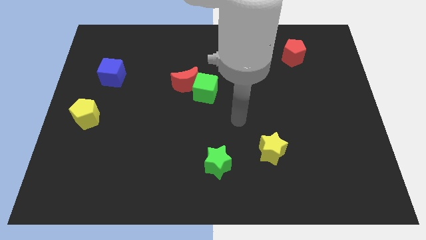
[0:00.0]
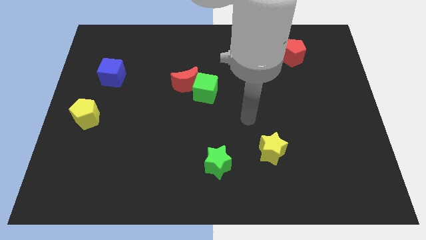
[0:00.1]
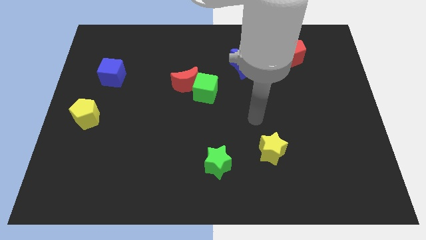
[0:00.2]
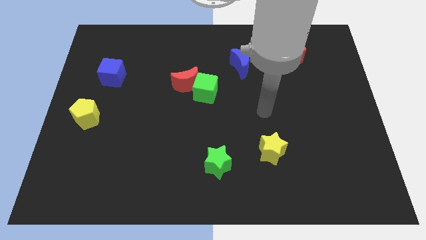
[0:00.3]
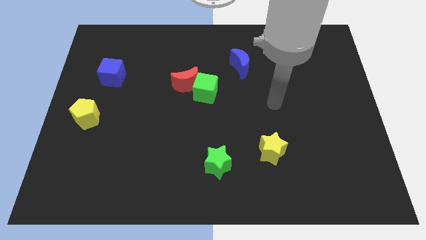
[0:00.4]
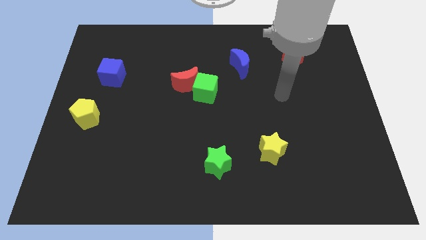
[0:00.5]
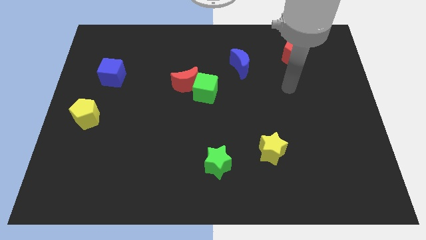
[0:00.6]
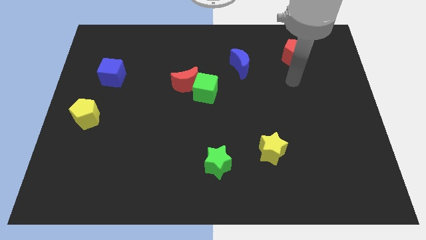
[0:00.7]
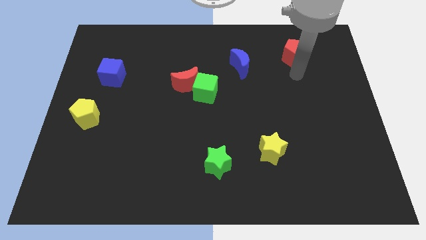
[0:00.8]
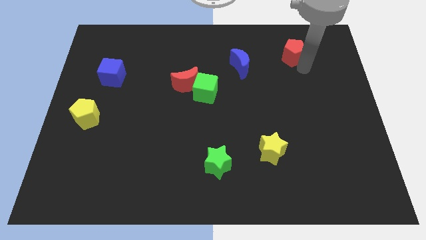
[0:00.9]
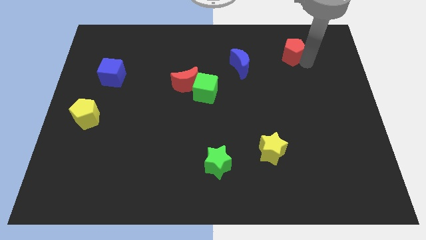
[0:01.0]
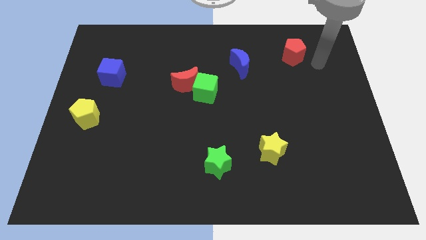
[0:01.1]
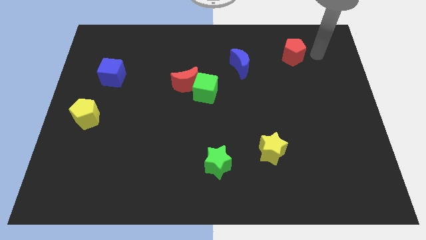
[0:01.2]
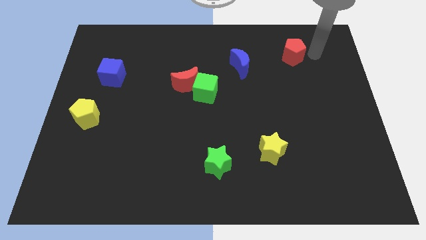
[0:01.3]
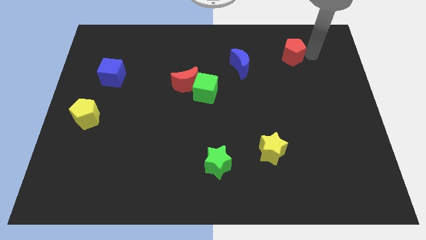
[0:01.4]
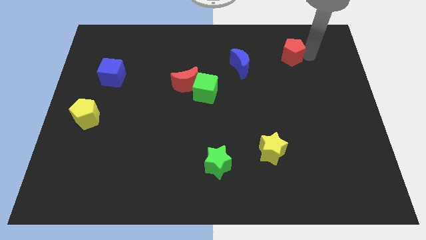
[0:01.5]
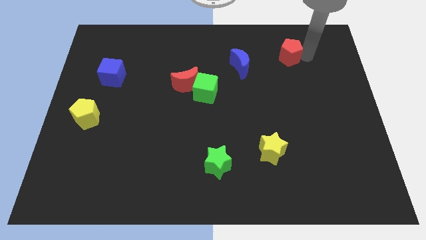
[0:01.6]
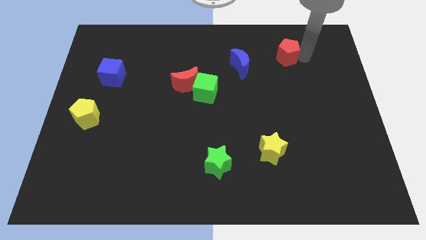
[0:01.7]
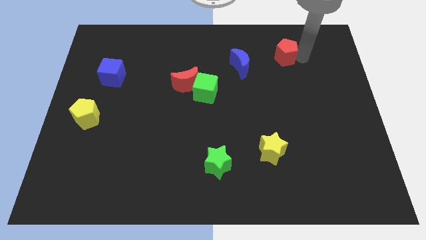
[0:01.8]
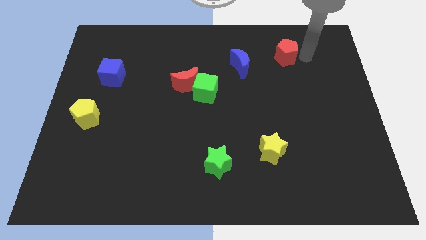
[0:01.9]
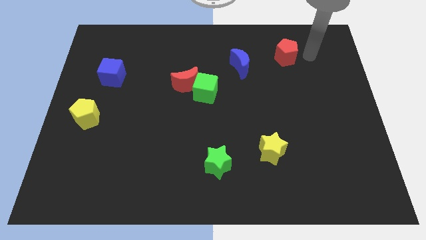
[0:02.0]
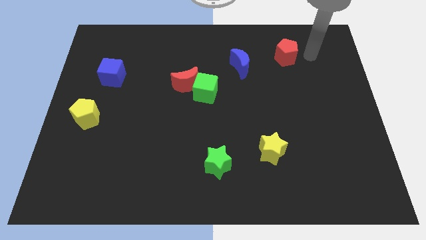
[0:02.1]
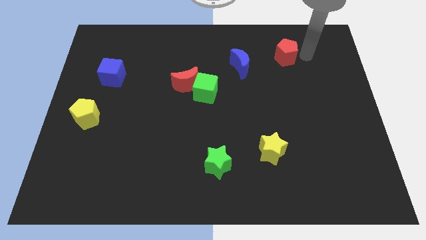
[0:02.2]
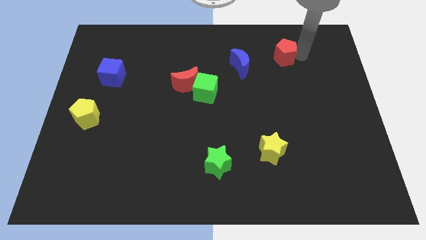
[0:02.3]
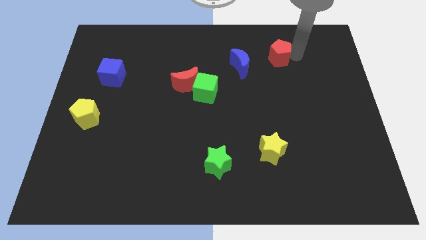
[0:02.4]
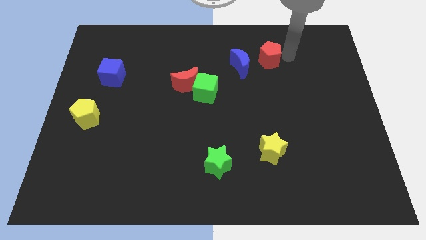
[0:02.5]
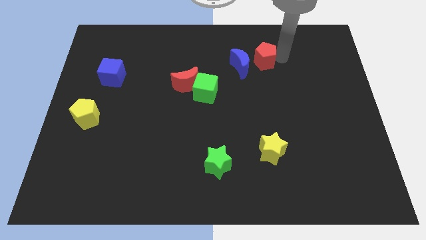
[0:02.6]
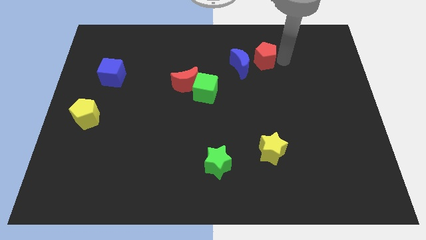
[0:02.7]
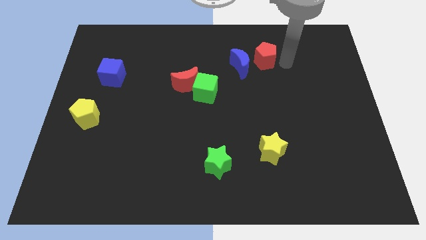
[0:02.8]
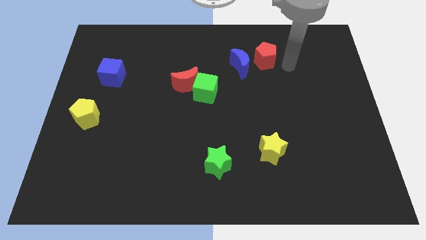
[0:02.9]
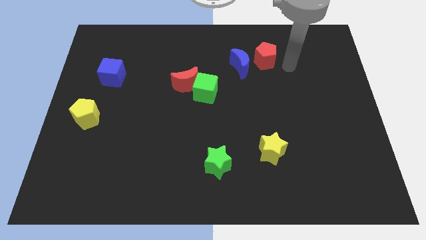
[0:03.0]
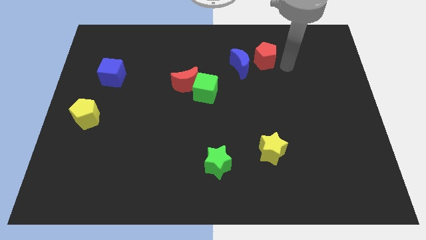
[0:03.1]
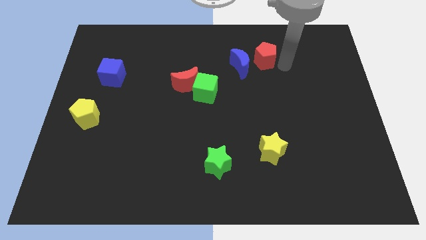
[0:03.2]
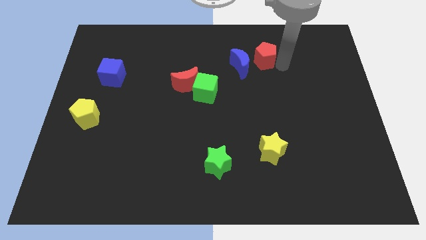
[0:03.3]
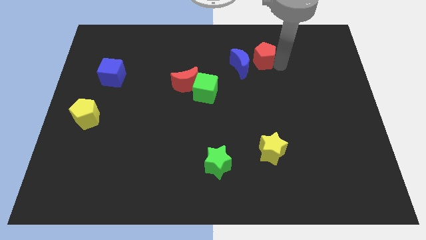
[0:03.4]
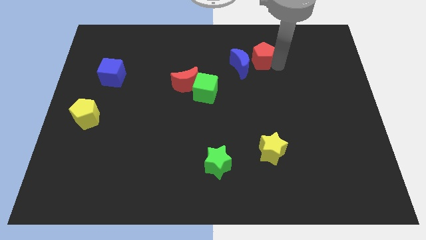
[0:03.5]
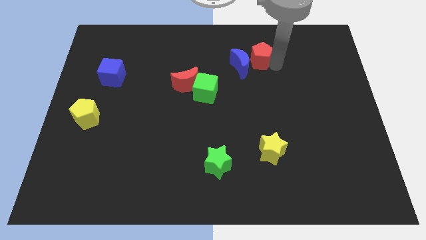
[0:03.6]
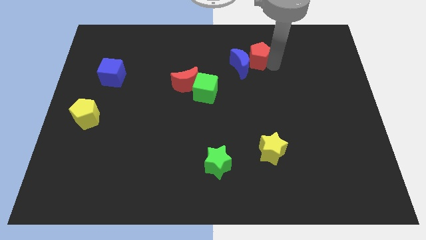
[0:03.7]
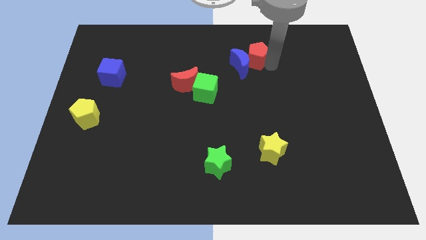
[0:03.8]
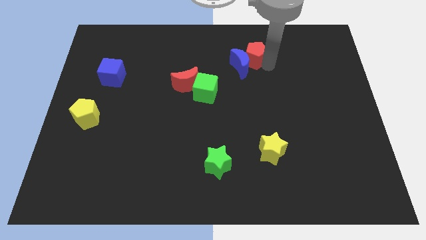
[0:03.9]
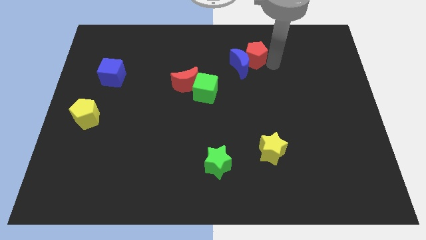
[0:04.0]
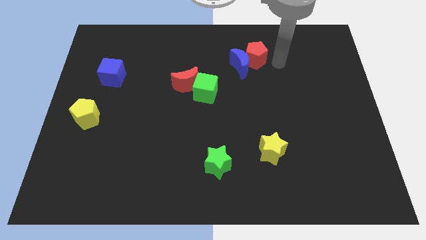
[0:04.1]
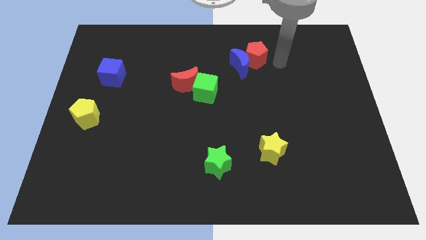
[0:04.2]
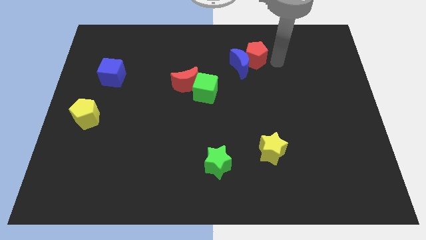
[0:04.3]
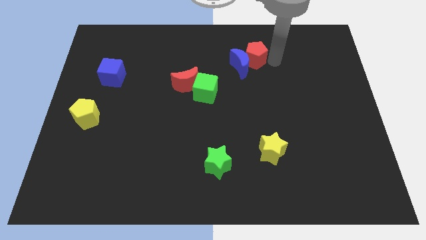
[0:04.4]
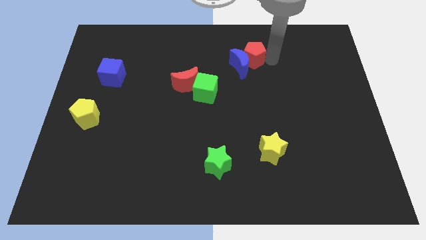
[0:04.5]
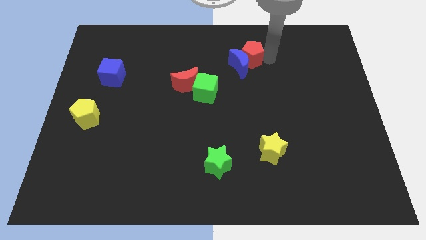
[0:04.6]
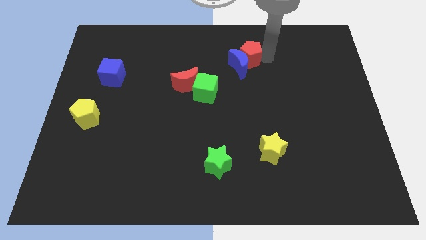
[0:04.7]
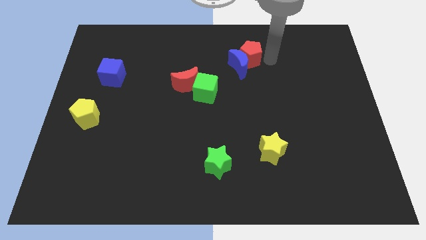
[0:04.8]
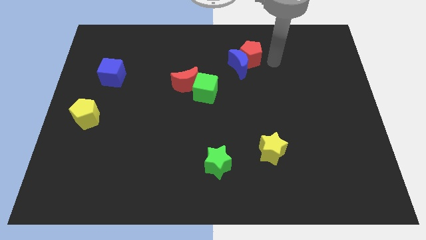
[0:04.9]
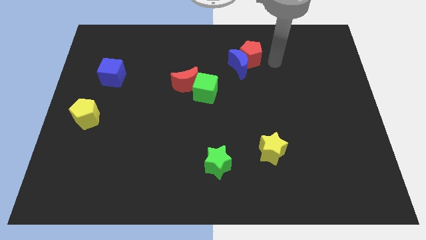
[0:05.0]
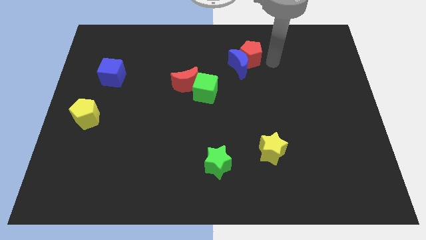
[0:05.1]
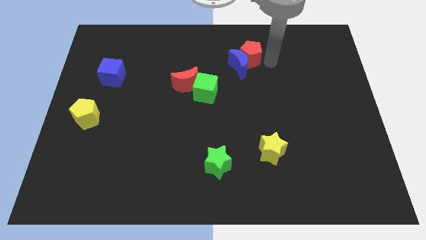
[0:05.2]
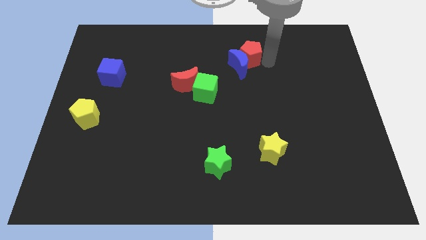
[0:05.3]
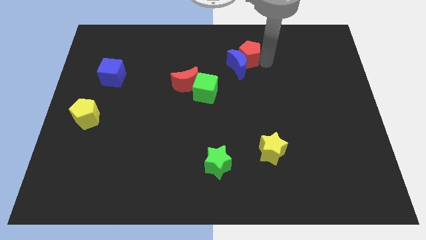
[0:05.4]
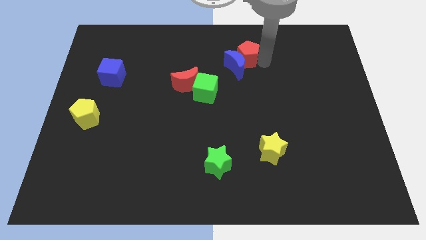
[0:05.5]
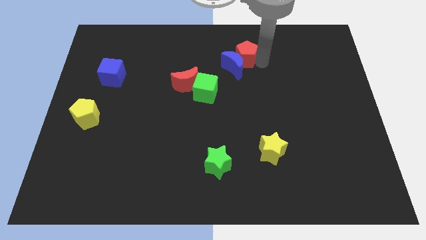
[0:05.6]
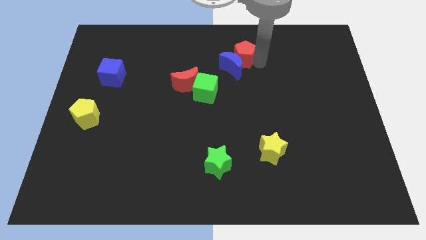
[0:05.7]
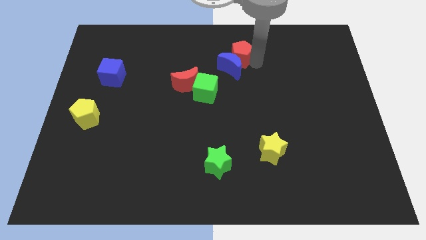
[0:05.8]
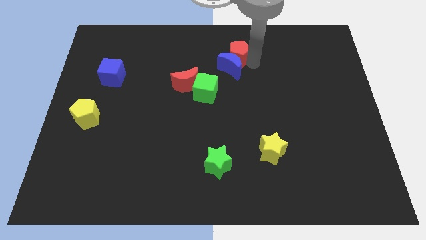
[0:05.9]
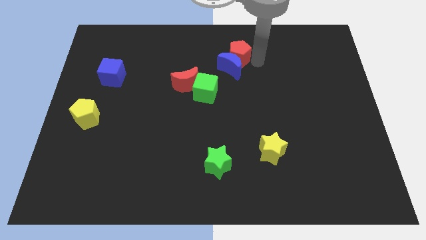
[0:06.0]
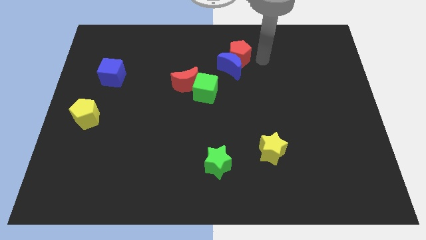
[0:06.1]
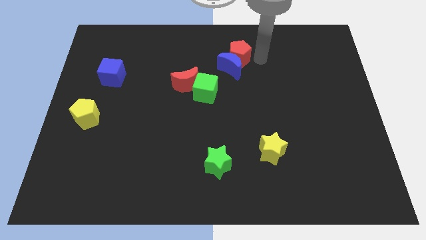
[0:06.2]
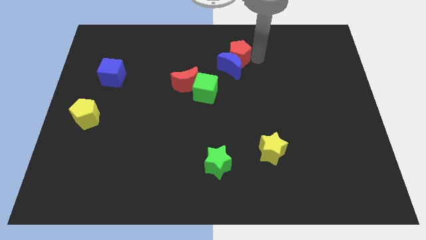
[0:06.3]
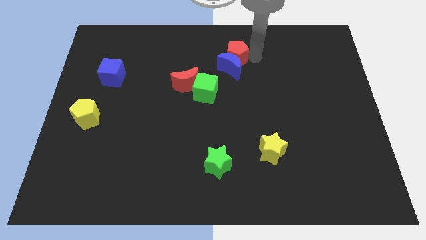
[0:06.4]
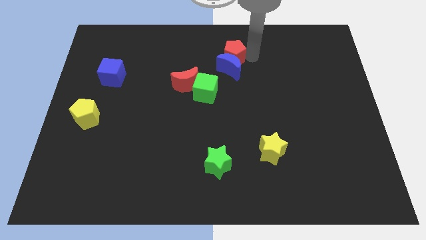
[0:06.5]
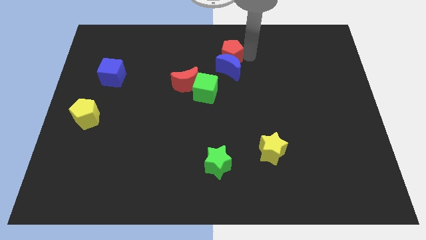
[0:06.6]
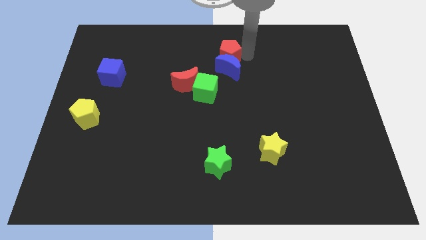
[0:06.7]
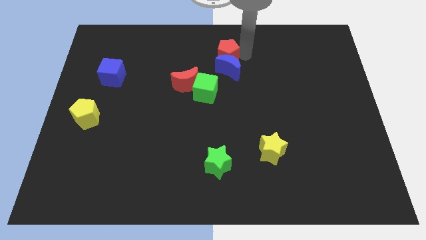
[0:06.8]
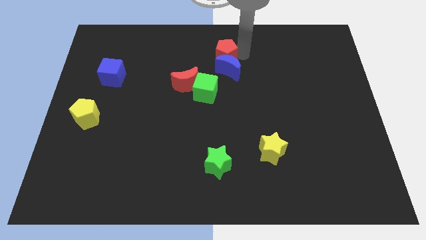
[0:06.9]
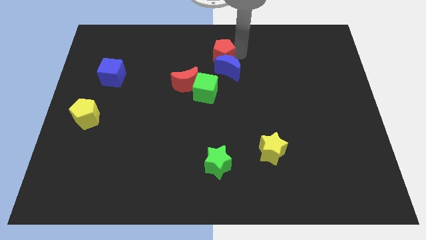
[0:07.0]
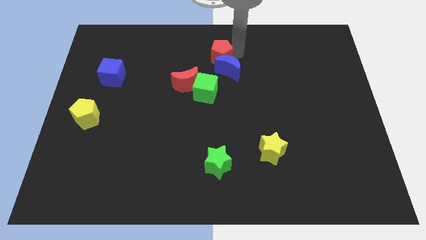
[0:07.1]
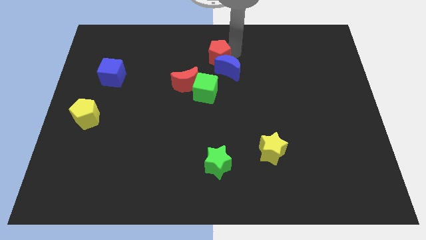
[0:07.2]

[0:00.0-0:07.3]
push the red pentagon to the left

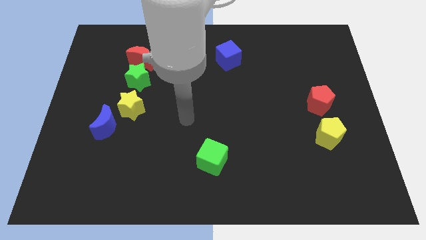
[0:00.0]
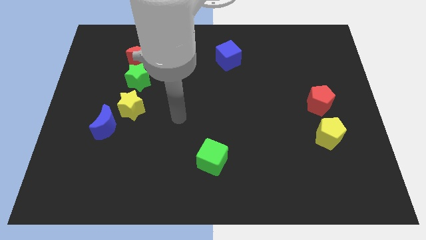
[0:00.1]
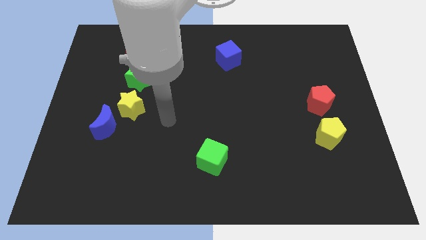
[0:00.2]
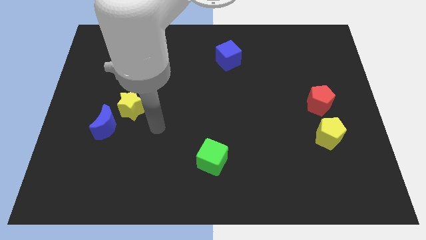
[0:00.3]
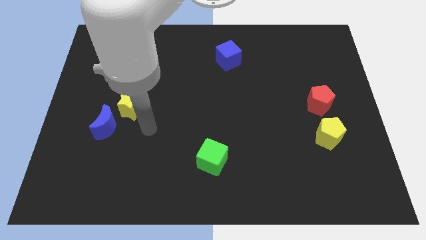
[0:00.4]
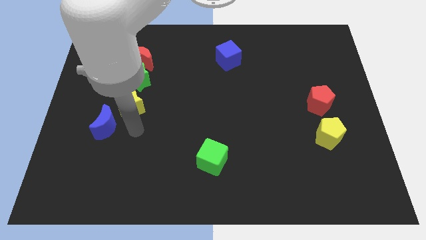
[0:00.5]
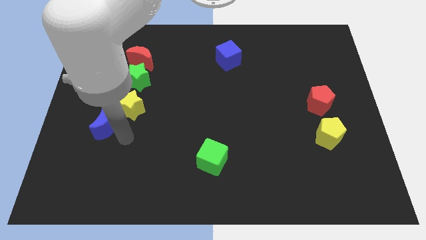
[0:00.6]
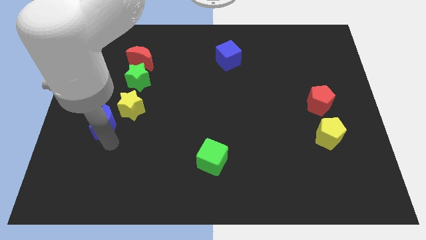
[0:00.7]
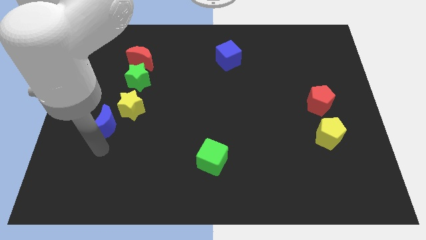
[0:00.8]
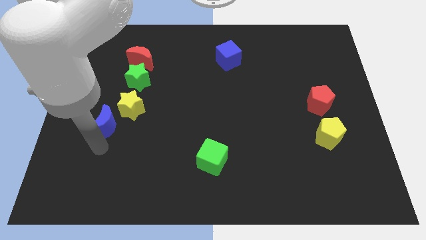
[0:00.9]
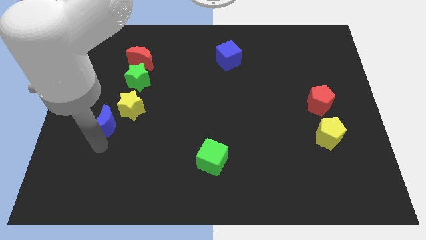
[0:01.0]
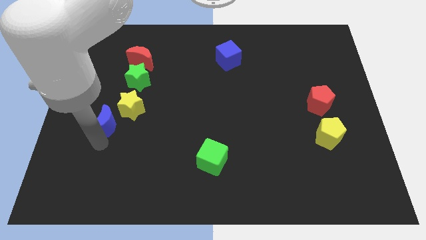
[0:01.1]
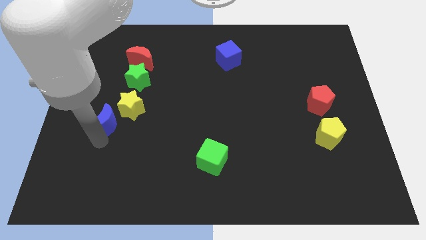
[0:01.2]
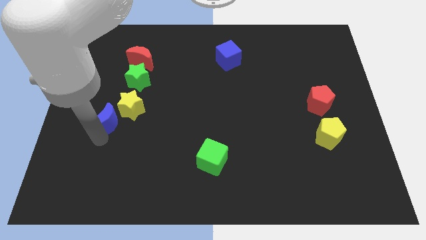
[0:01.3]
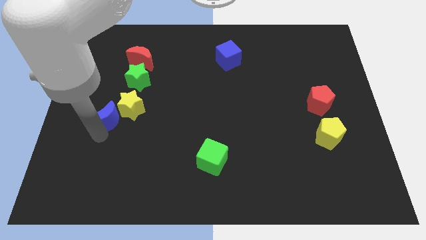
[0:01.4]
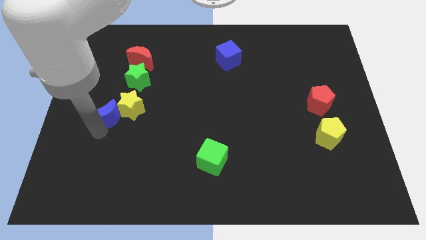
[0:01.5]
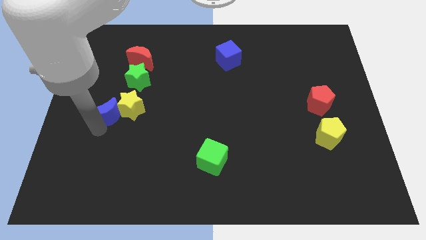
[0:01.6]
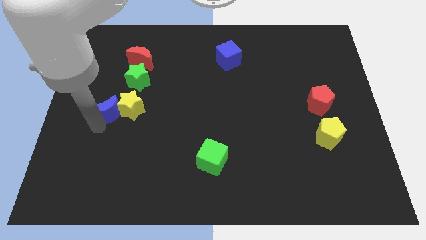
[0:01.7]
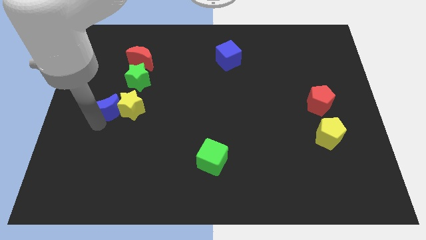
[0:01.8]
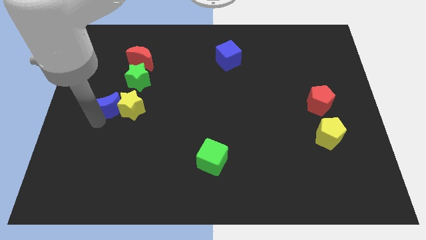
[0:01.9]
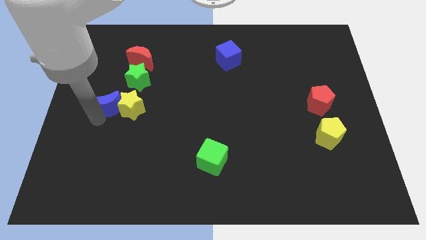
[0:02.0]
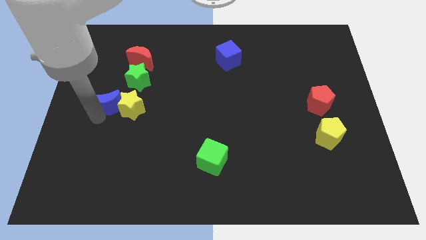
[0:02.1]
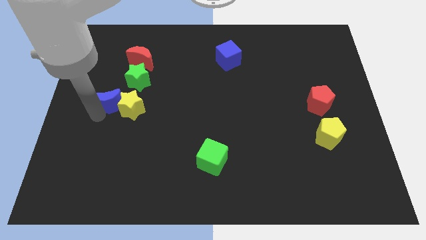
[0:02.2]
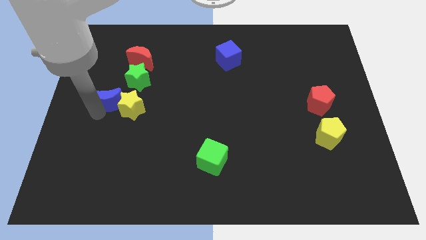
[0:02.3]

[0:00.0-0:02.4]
slightly move the blue moon up
